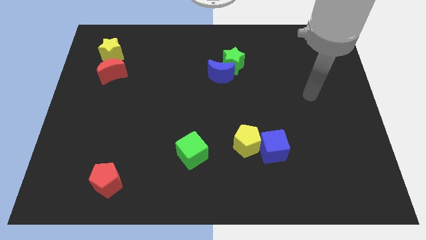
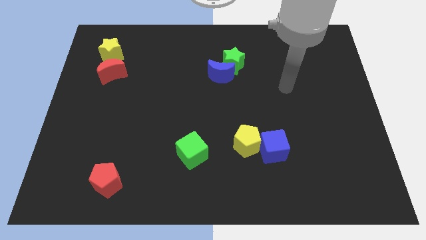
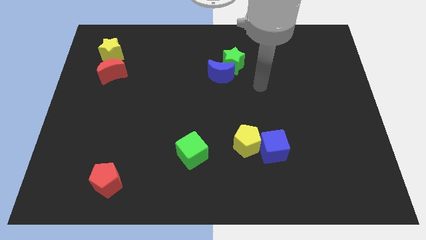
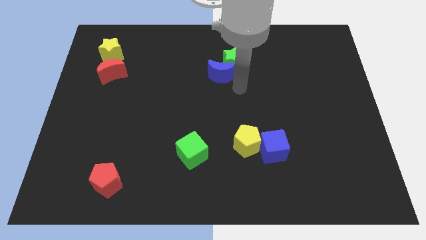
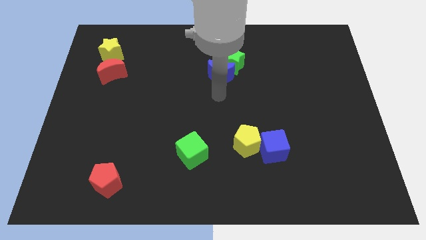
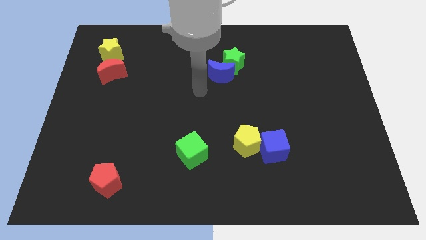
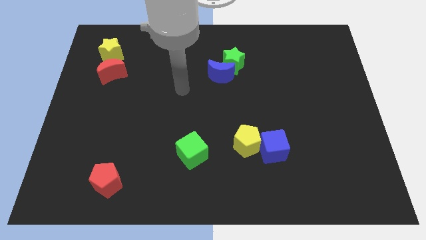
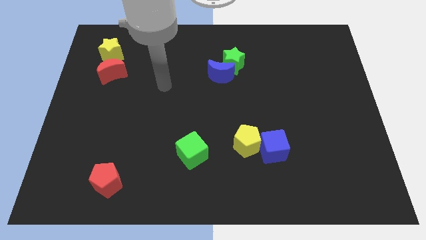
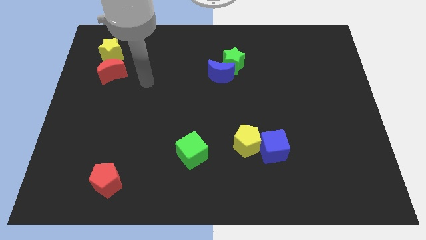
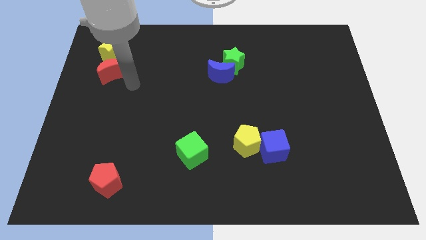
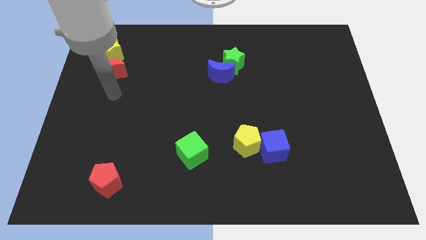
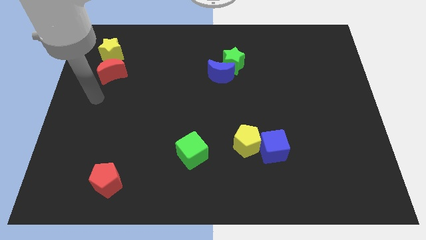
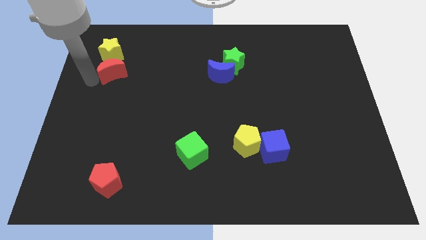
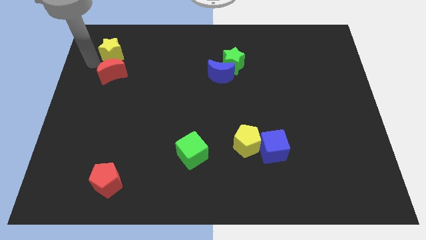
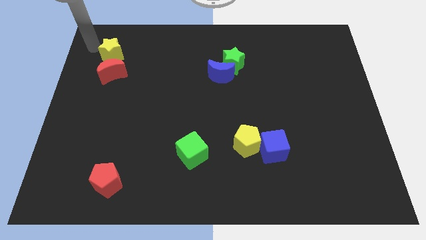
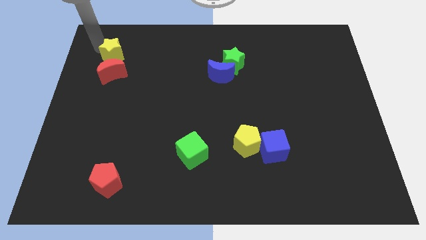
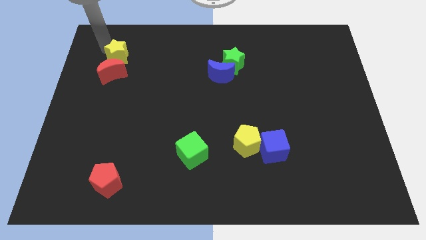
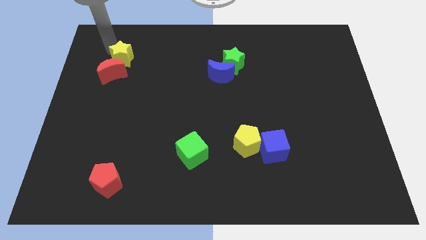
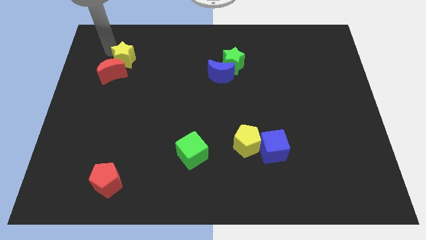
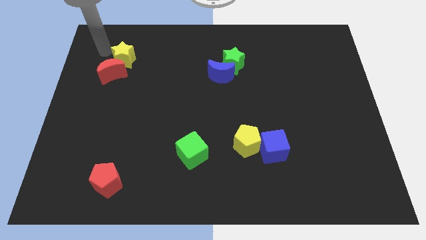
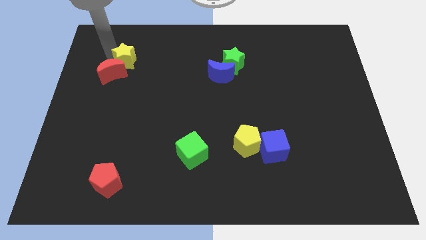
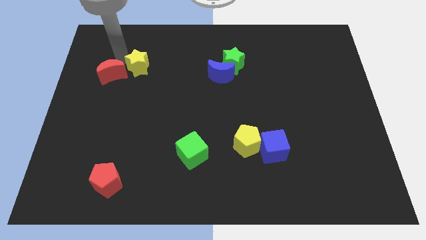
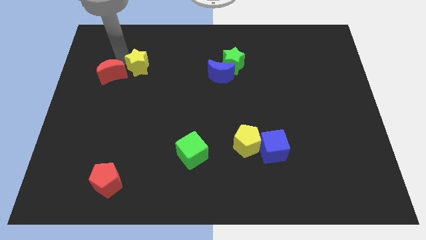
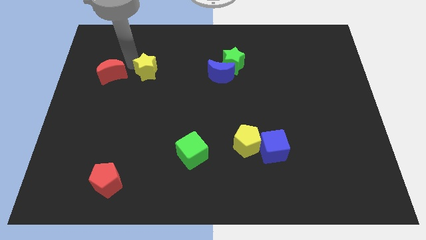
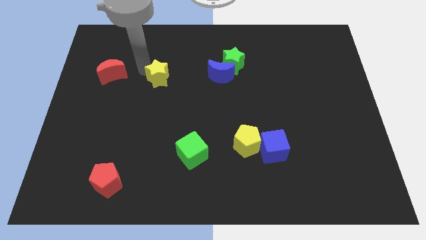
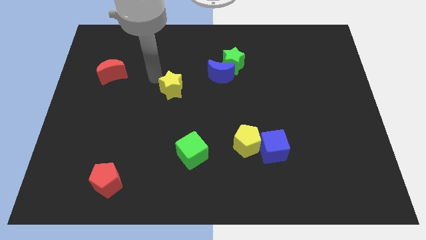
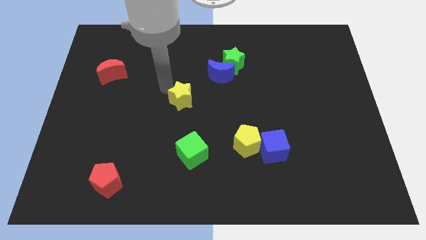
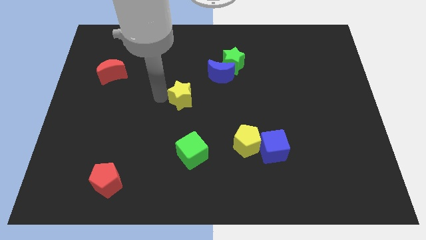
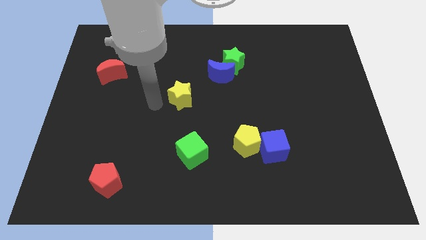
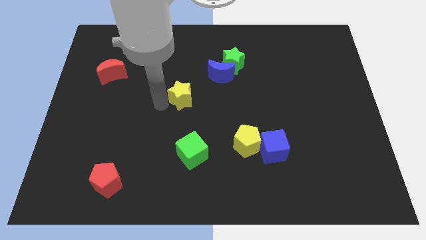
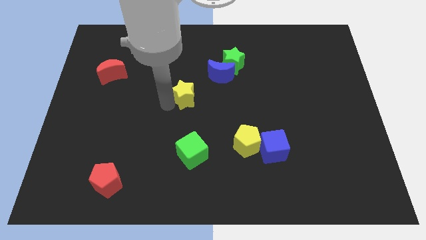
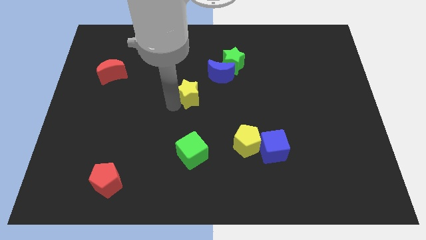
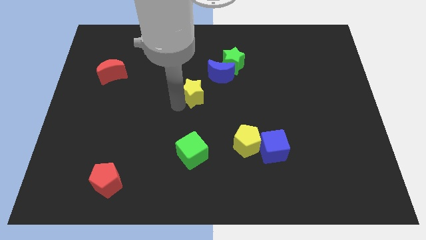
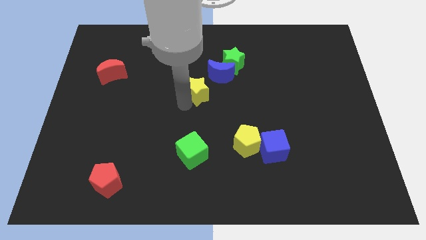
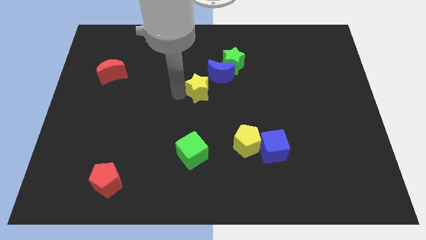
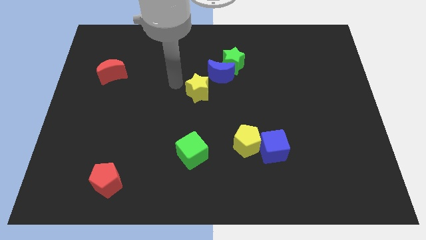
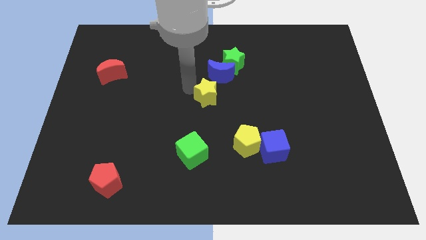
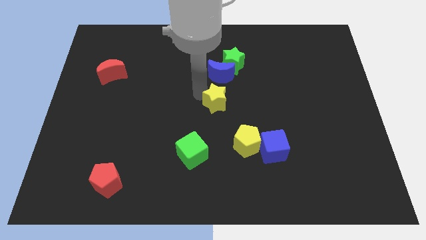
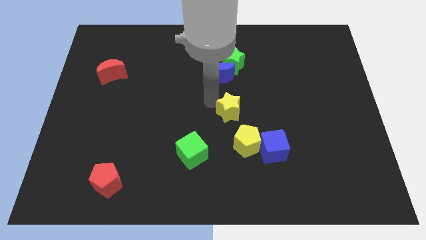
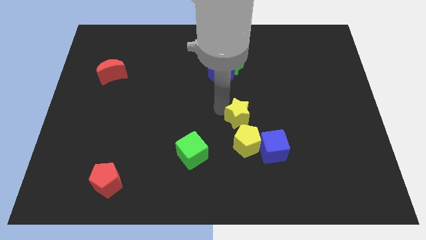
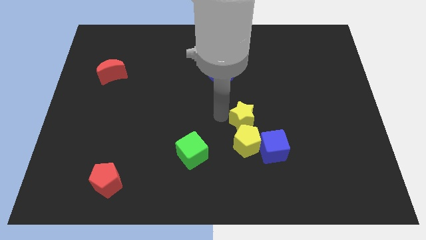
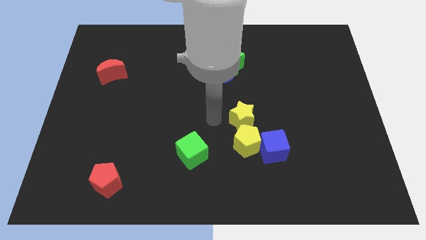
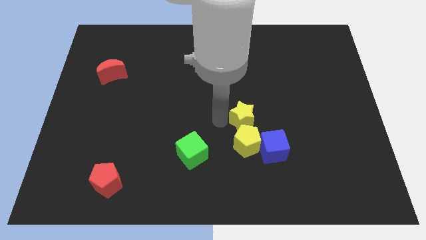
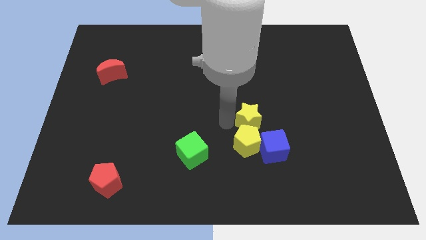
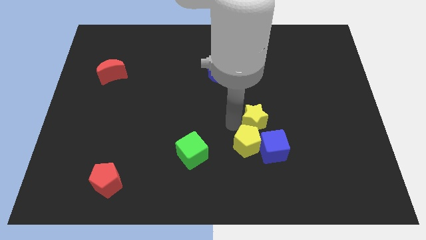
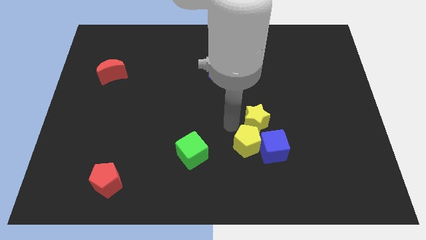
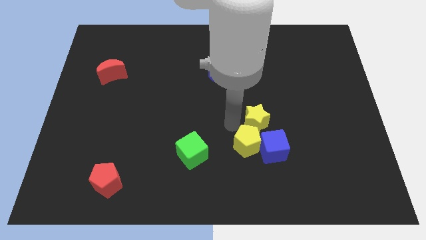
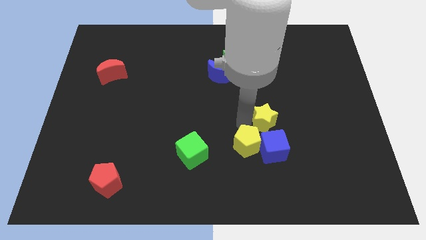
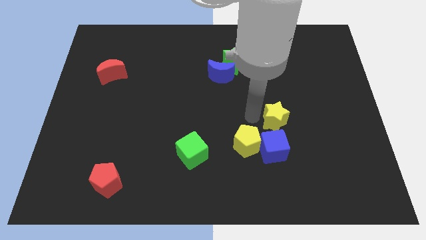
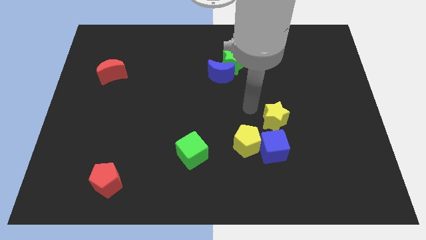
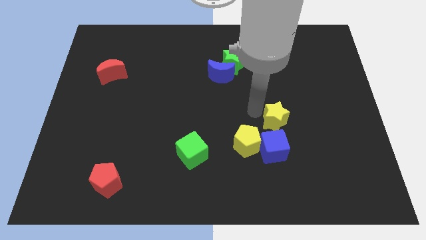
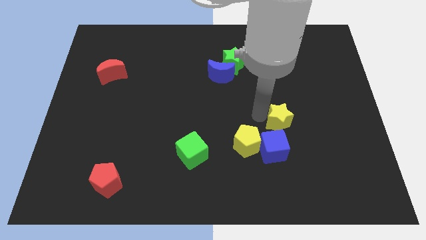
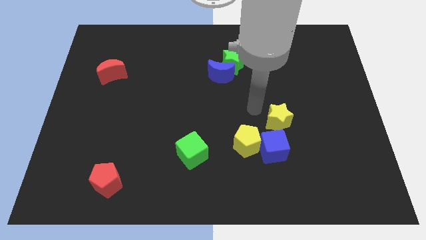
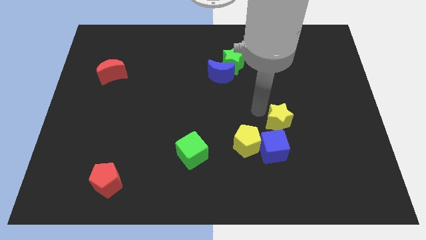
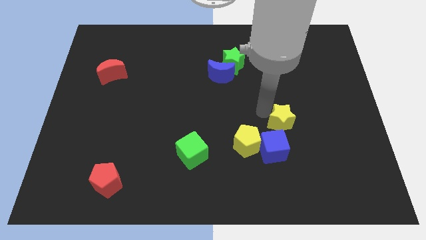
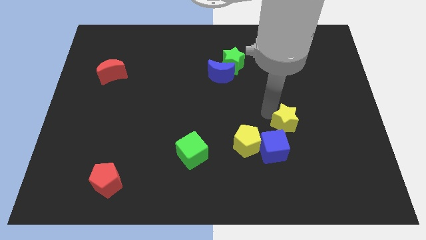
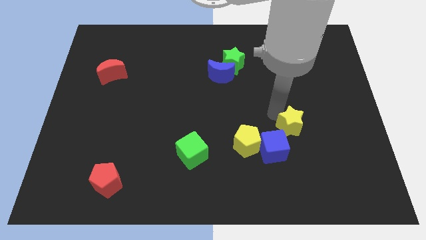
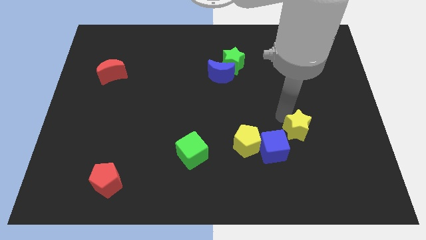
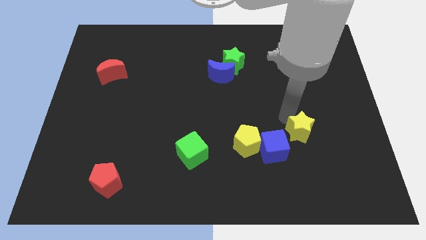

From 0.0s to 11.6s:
move the yellow star to the right side of the blue cube

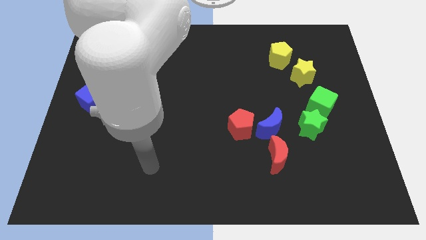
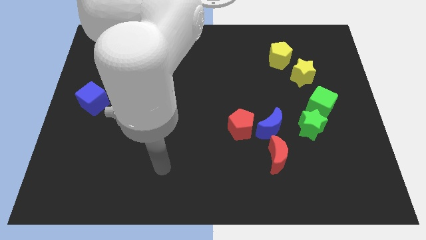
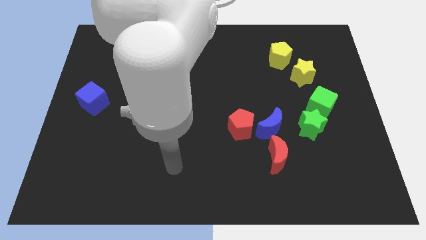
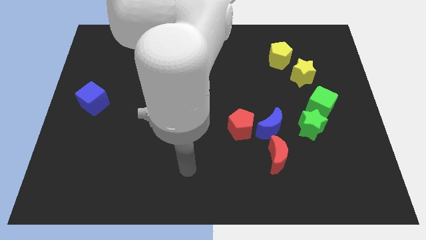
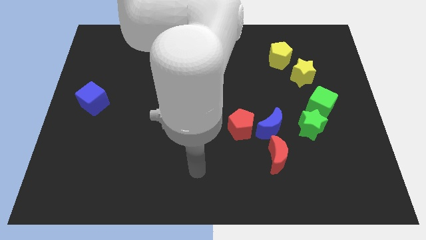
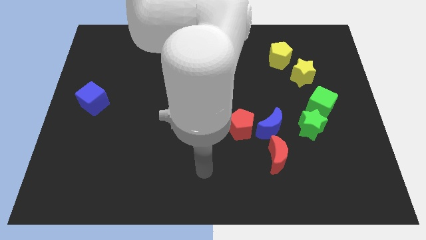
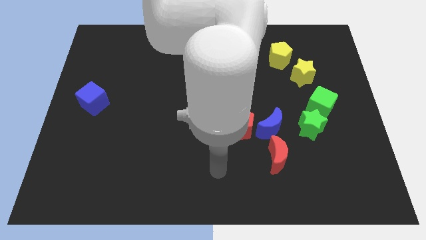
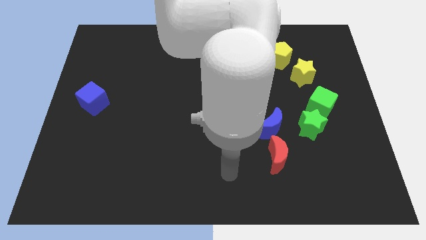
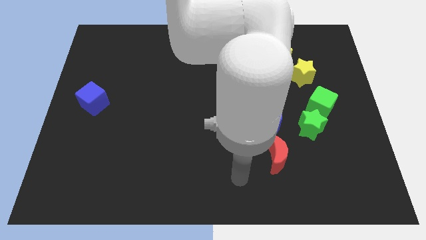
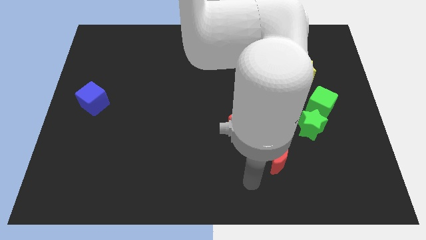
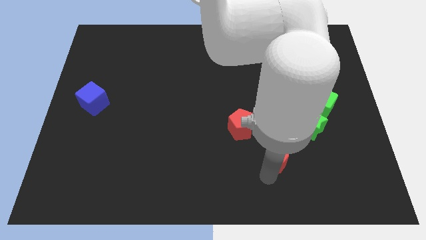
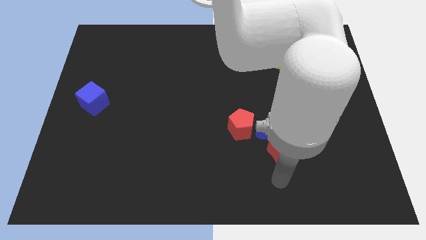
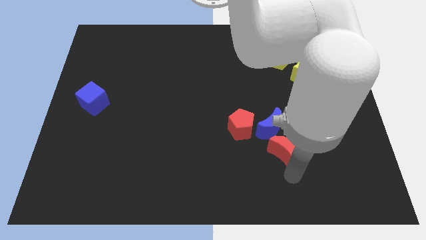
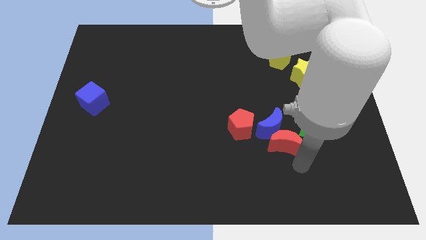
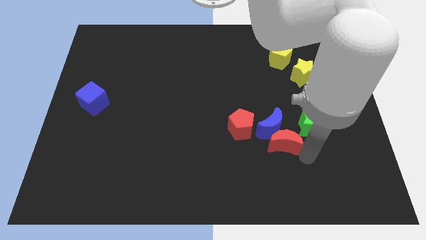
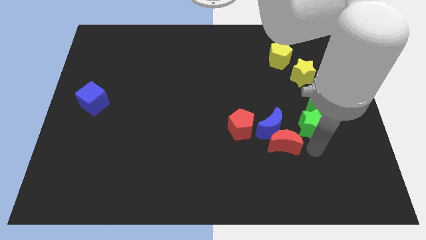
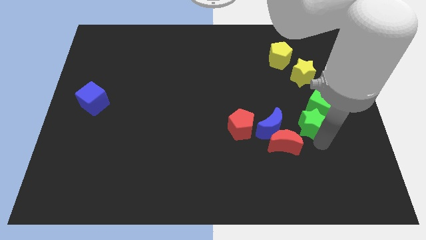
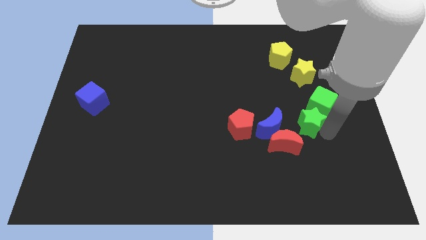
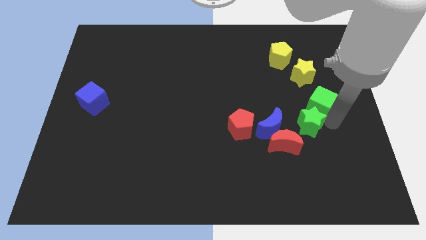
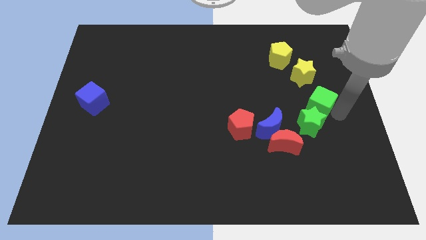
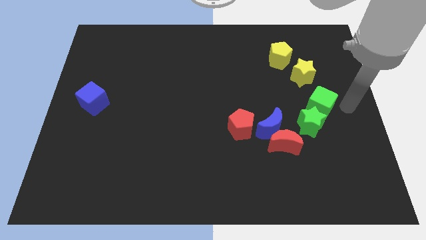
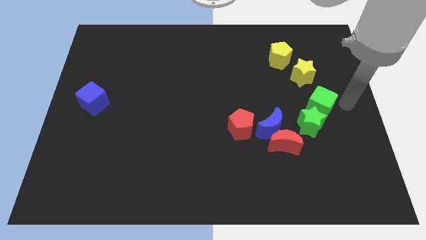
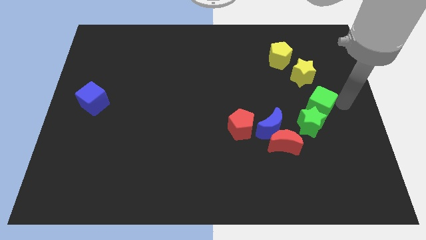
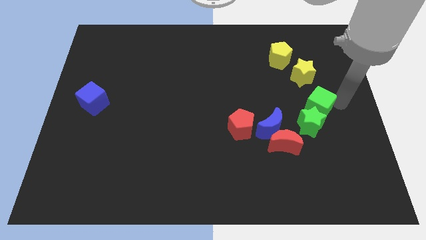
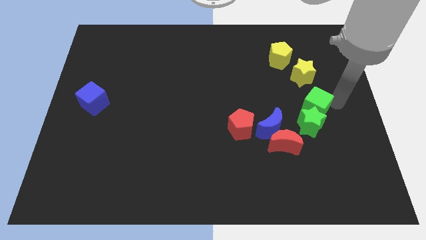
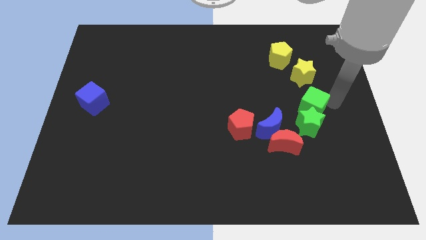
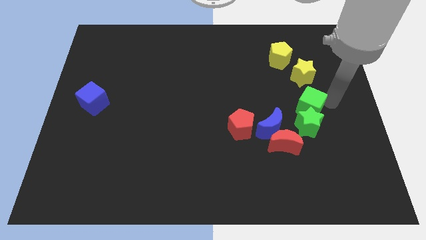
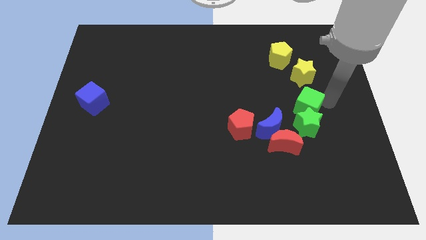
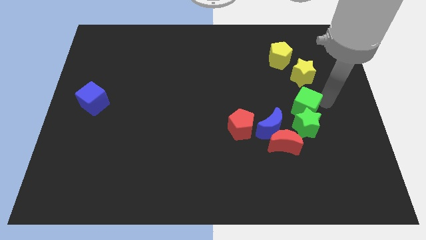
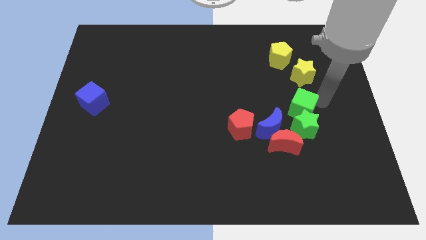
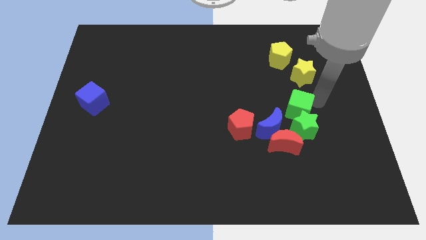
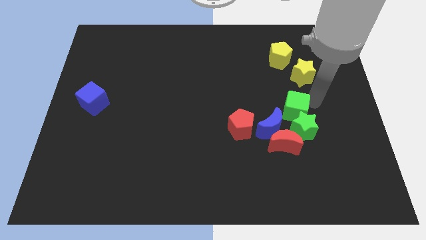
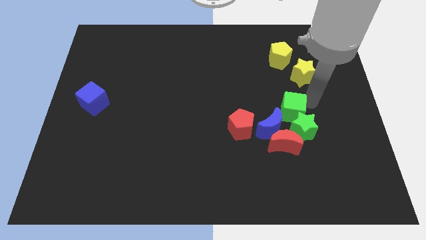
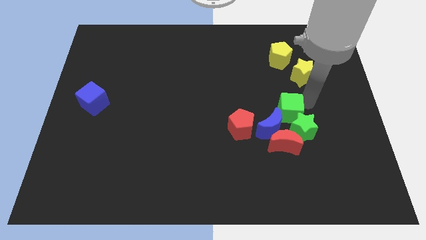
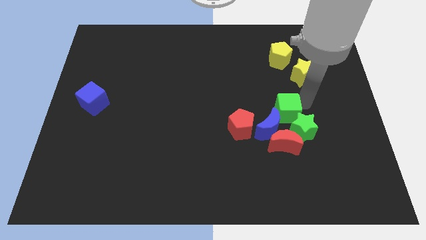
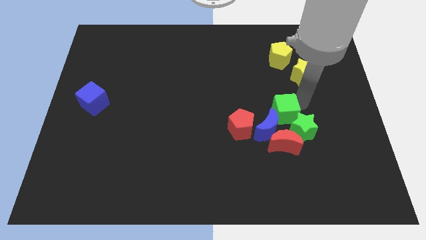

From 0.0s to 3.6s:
move the green cube diagonally up and to the right of the red pentagon
